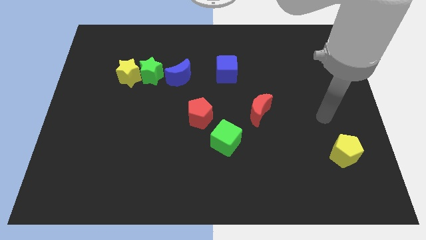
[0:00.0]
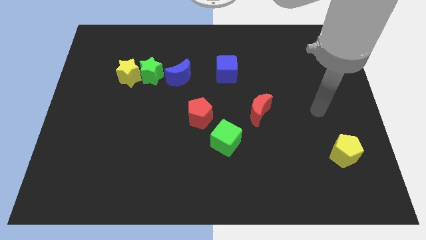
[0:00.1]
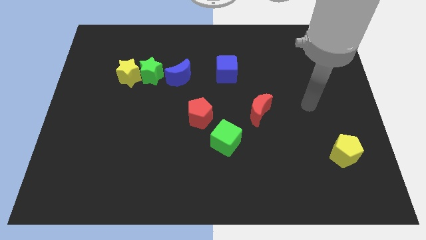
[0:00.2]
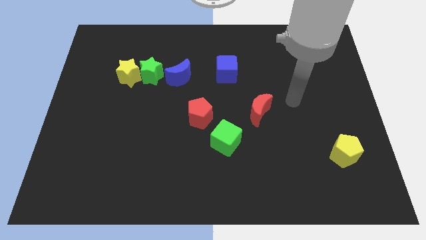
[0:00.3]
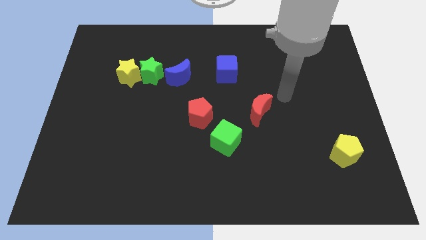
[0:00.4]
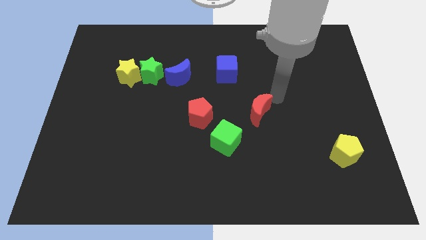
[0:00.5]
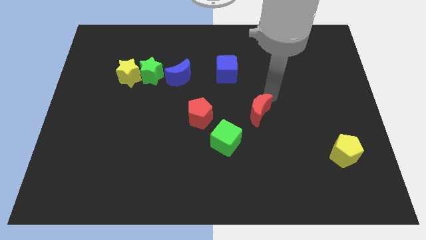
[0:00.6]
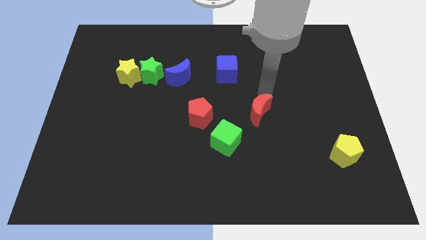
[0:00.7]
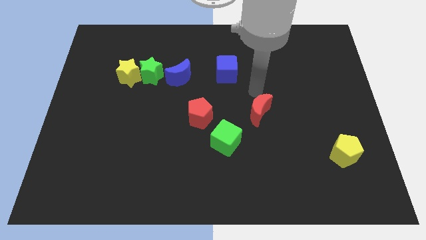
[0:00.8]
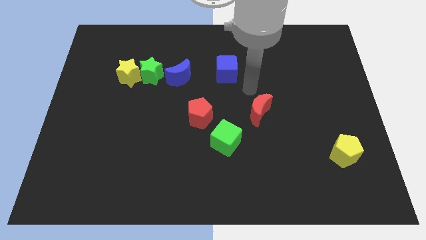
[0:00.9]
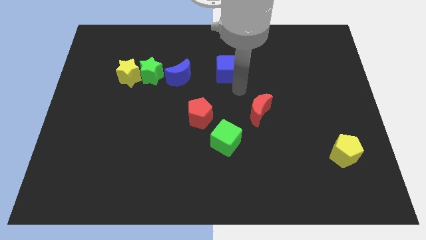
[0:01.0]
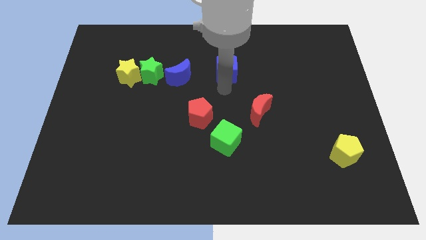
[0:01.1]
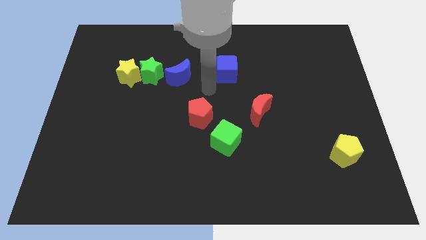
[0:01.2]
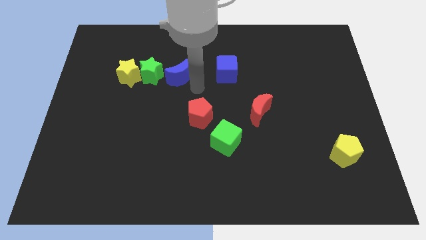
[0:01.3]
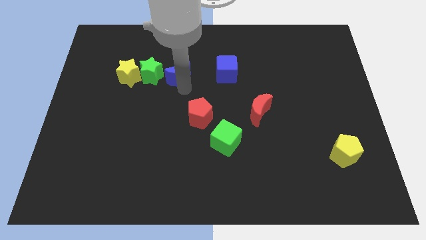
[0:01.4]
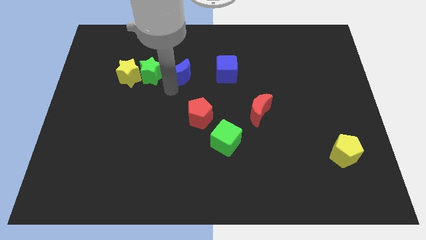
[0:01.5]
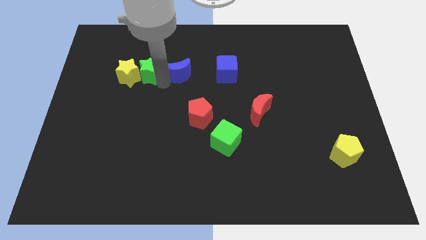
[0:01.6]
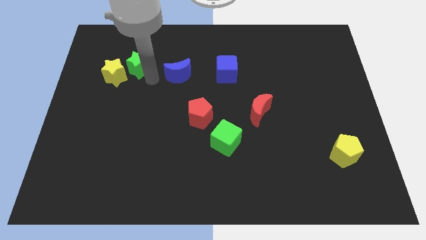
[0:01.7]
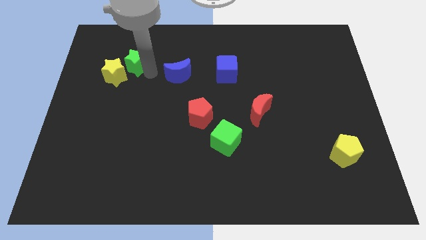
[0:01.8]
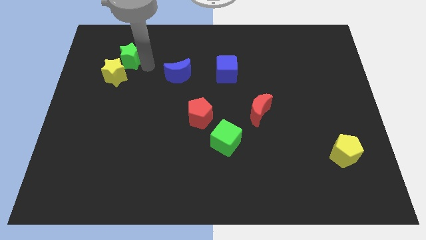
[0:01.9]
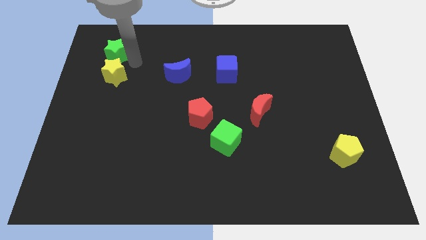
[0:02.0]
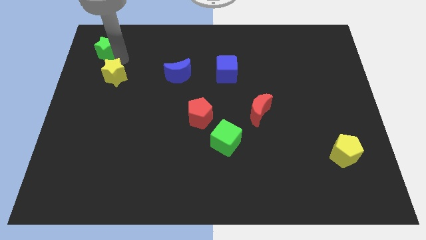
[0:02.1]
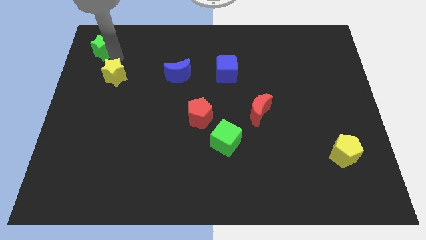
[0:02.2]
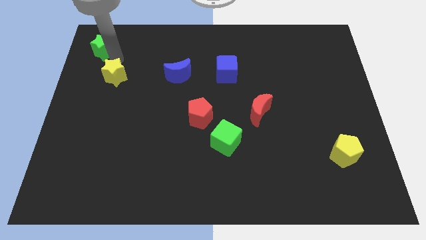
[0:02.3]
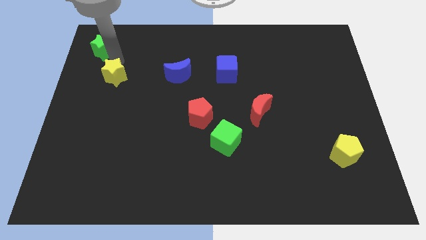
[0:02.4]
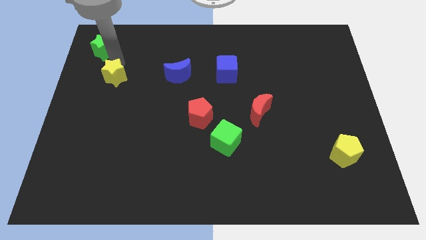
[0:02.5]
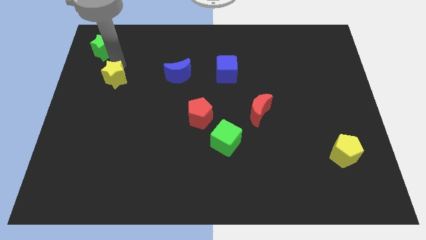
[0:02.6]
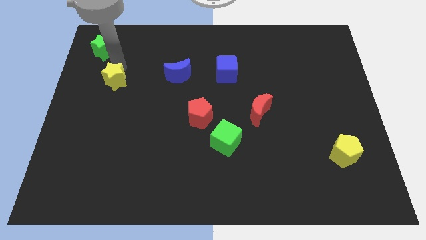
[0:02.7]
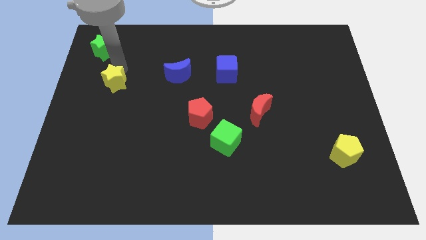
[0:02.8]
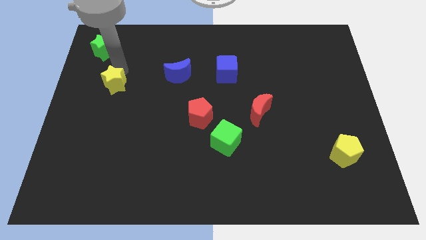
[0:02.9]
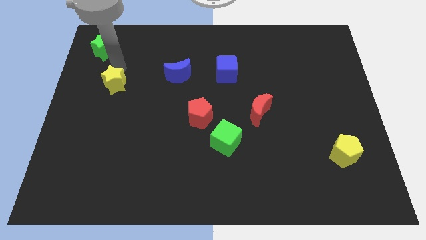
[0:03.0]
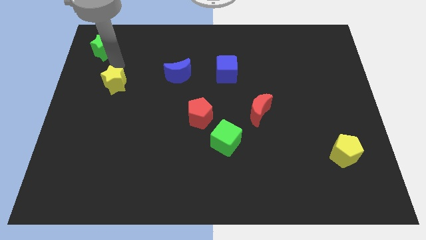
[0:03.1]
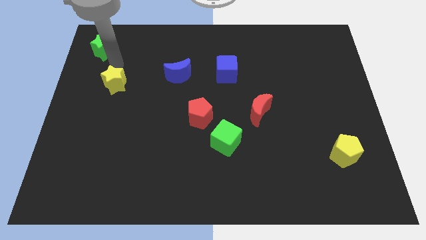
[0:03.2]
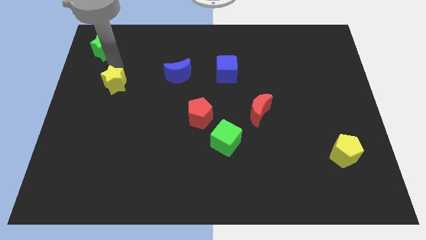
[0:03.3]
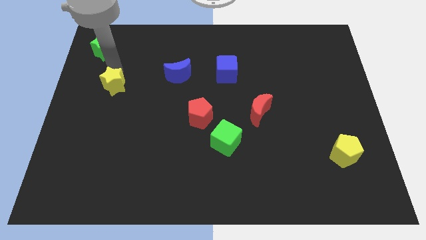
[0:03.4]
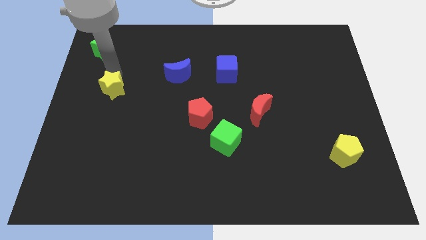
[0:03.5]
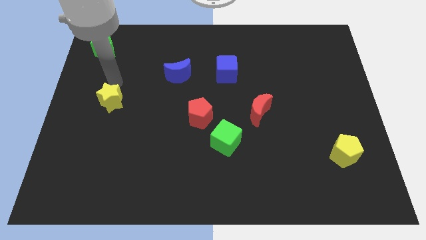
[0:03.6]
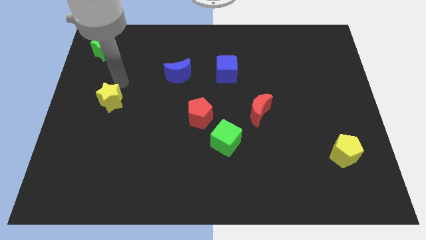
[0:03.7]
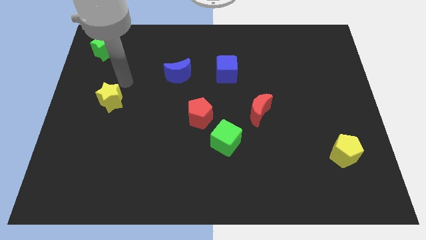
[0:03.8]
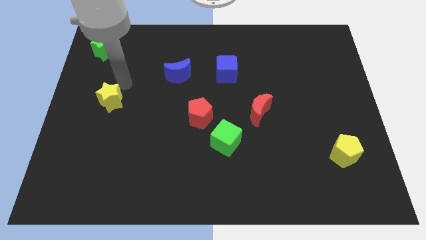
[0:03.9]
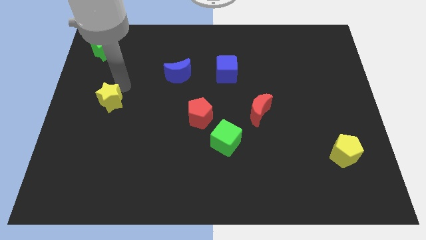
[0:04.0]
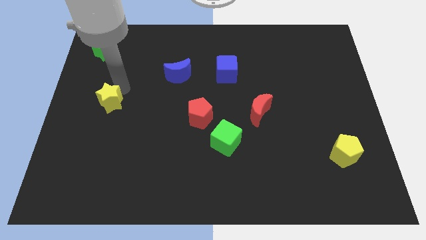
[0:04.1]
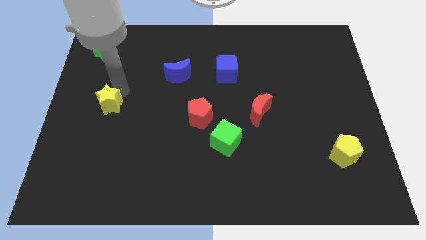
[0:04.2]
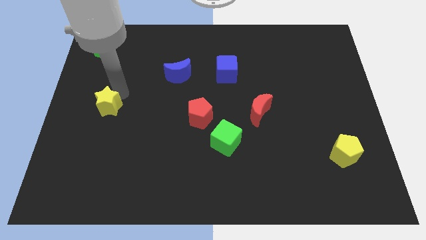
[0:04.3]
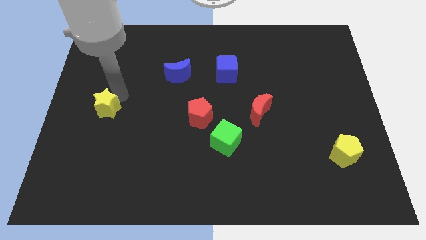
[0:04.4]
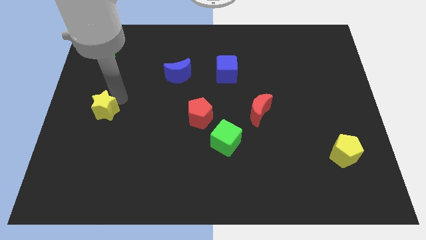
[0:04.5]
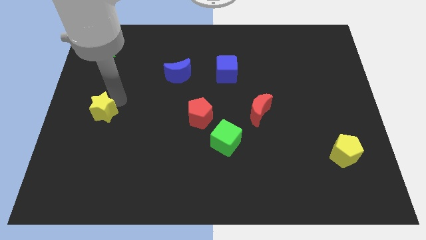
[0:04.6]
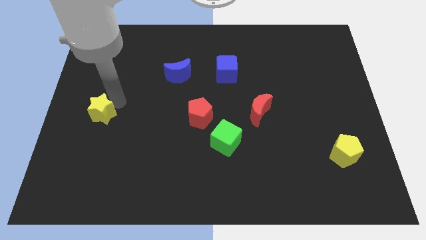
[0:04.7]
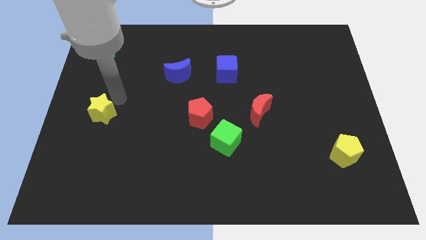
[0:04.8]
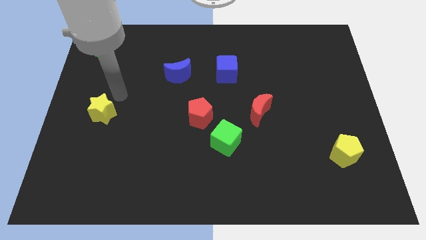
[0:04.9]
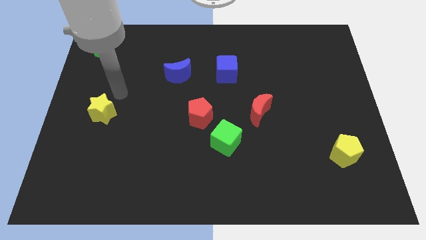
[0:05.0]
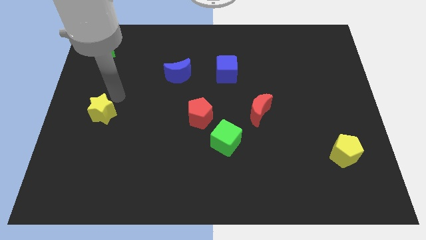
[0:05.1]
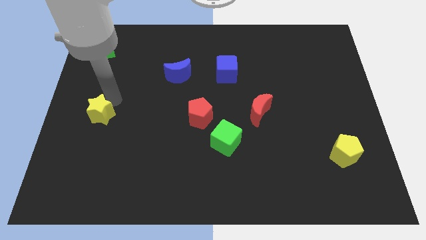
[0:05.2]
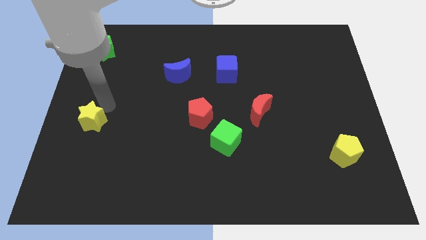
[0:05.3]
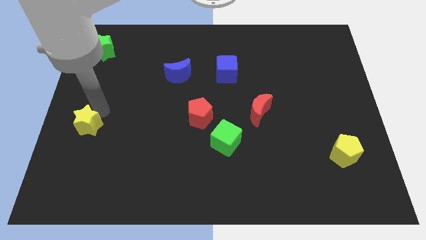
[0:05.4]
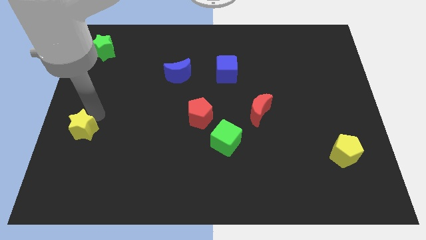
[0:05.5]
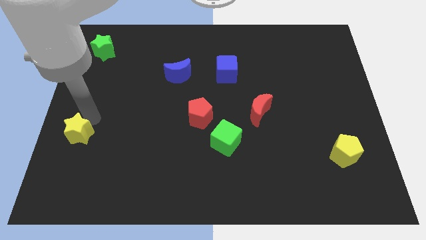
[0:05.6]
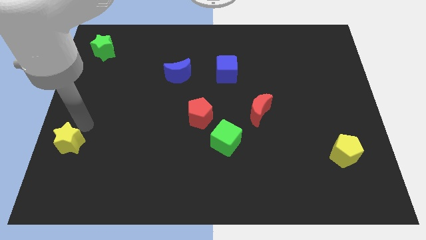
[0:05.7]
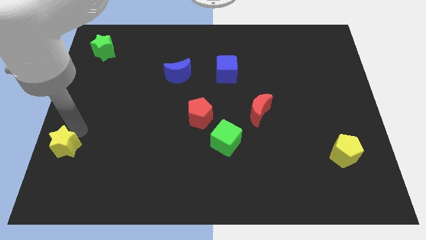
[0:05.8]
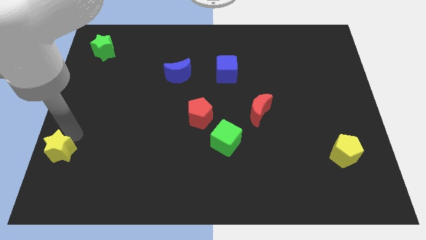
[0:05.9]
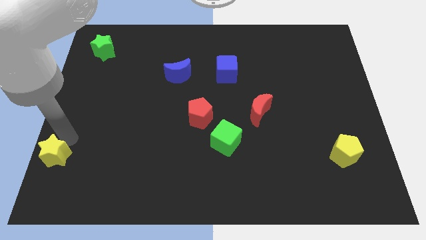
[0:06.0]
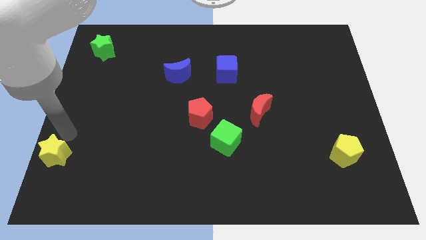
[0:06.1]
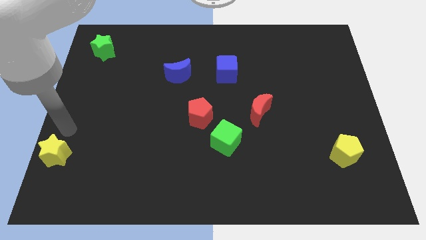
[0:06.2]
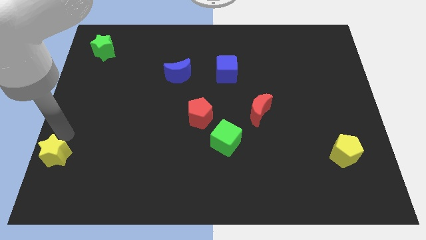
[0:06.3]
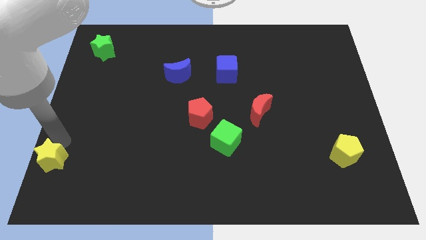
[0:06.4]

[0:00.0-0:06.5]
put the yellow star to the bottom left of the board
